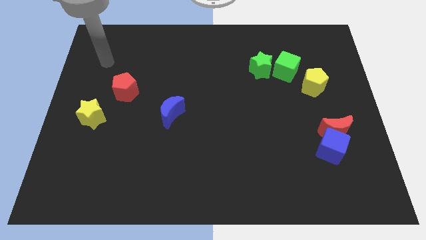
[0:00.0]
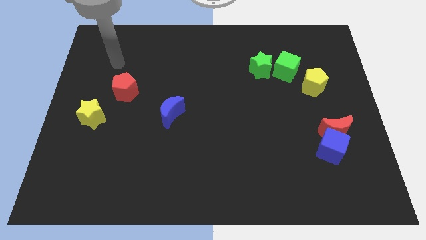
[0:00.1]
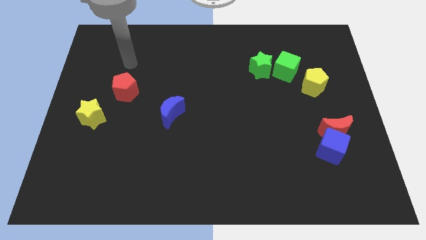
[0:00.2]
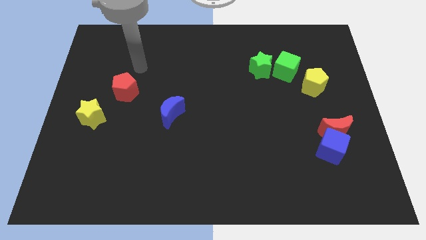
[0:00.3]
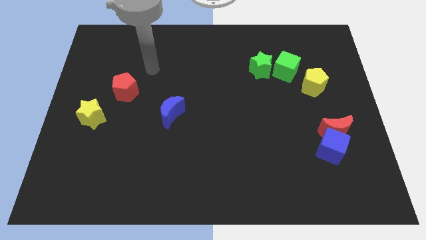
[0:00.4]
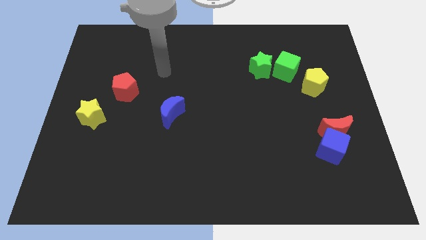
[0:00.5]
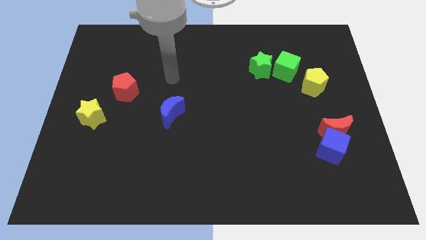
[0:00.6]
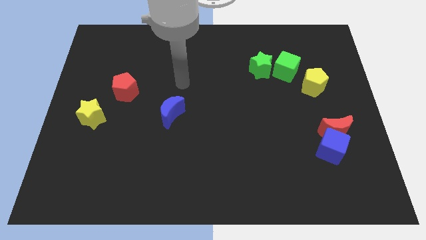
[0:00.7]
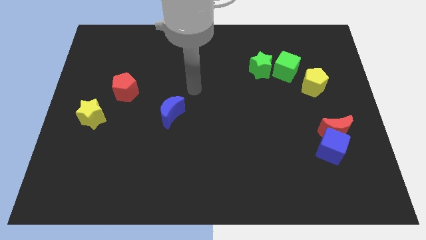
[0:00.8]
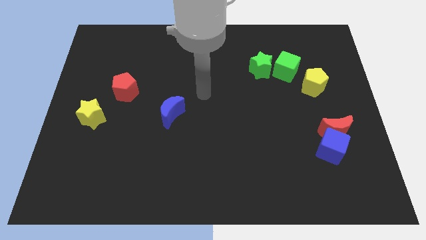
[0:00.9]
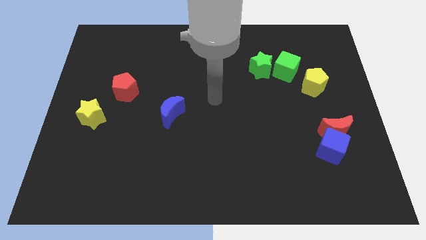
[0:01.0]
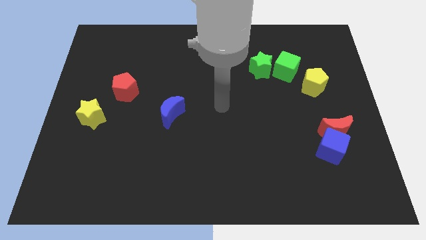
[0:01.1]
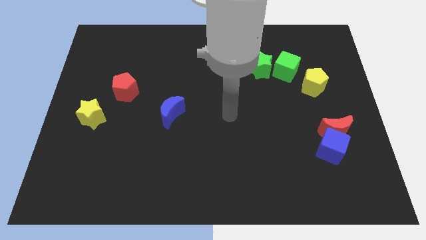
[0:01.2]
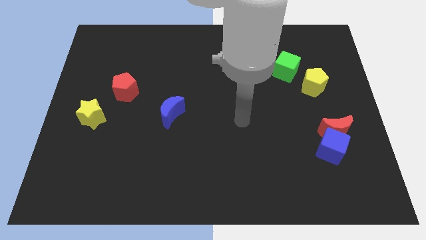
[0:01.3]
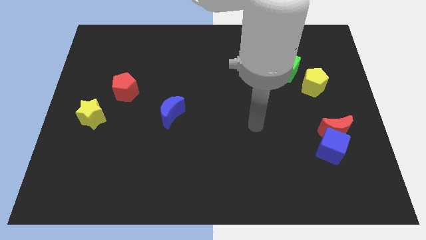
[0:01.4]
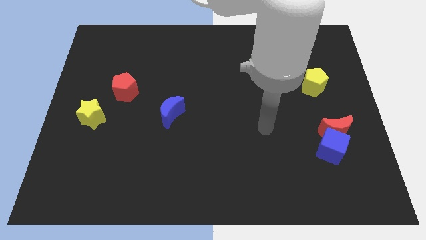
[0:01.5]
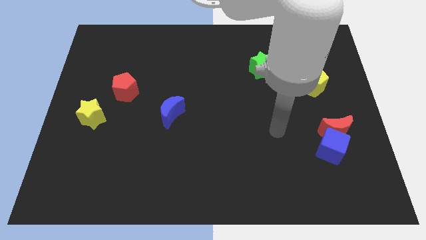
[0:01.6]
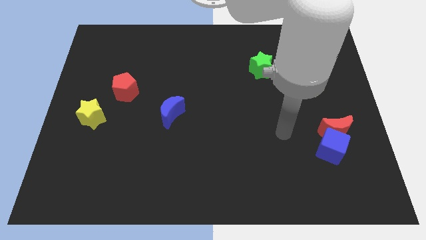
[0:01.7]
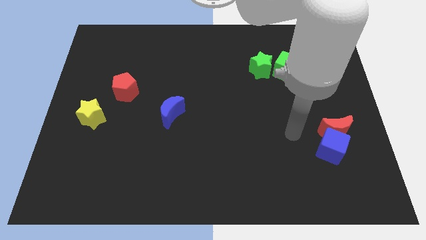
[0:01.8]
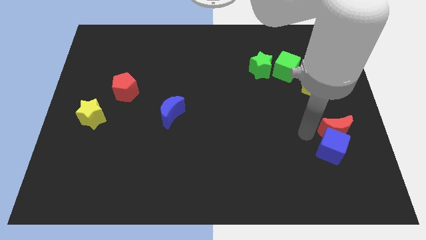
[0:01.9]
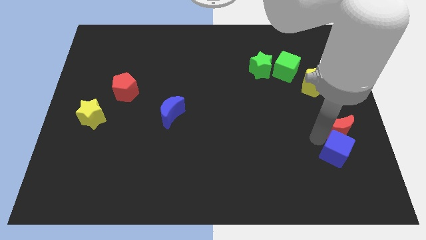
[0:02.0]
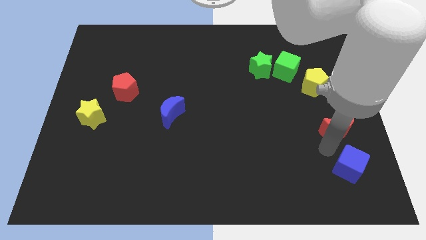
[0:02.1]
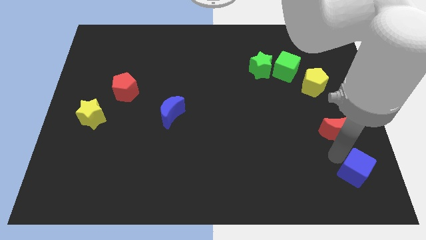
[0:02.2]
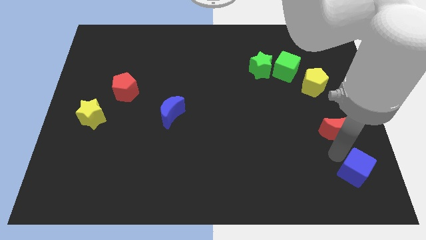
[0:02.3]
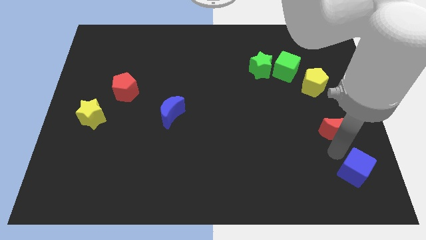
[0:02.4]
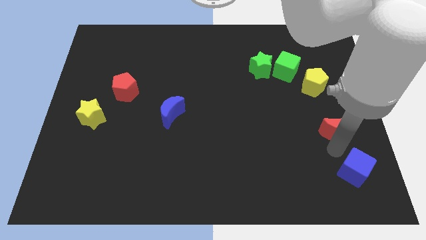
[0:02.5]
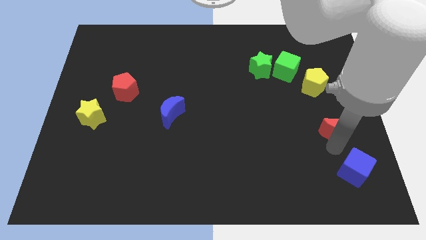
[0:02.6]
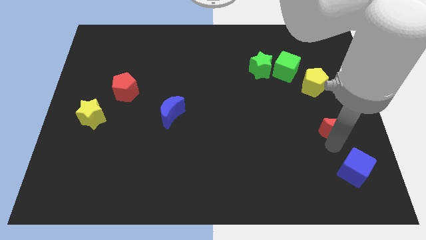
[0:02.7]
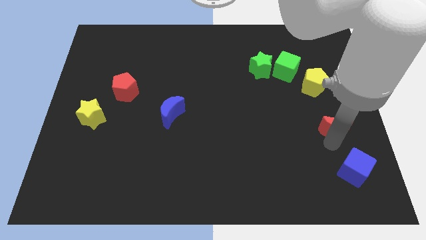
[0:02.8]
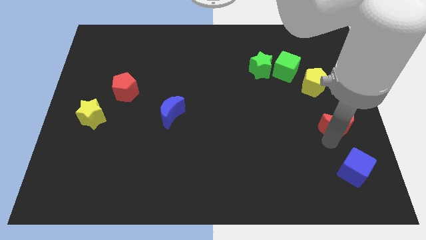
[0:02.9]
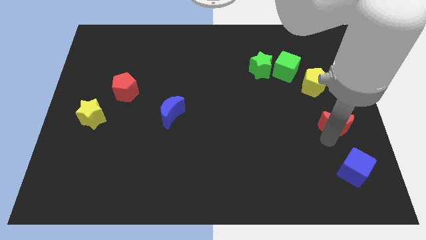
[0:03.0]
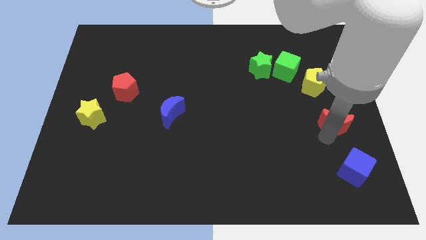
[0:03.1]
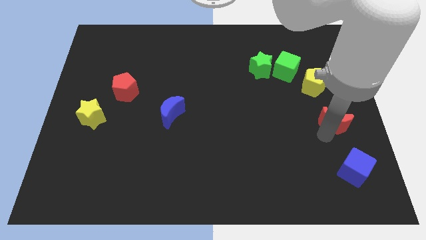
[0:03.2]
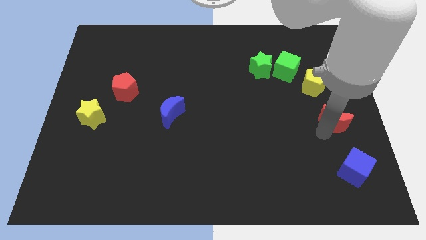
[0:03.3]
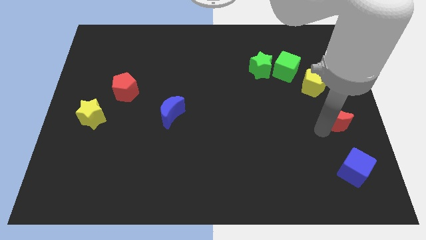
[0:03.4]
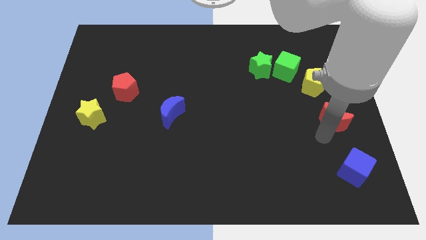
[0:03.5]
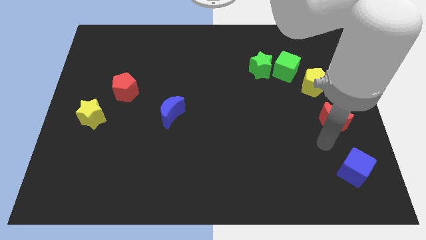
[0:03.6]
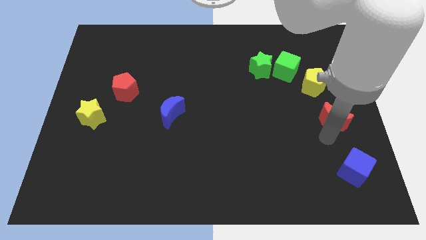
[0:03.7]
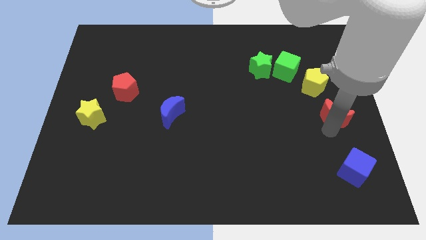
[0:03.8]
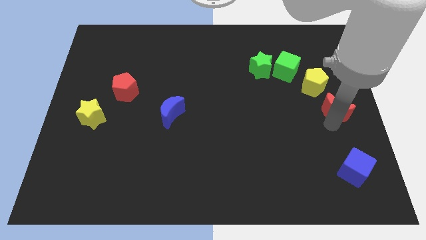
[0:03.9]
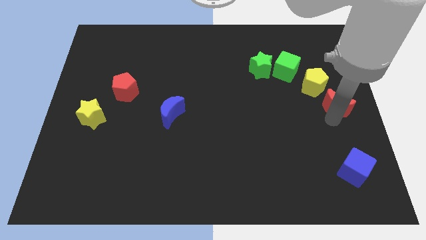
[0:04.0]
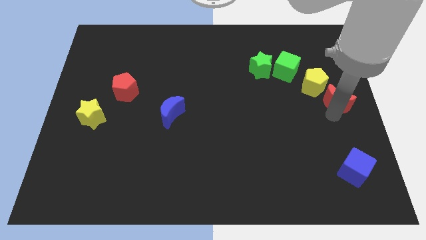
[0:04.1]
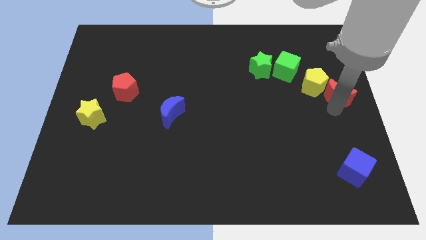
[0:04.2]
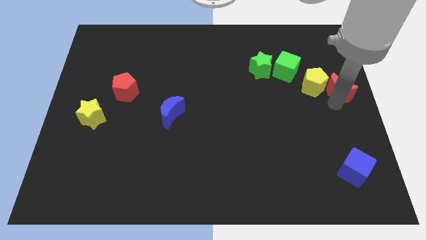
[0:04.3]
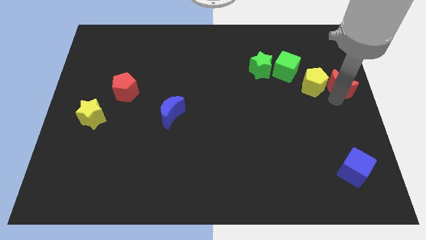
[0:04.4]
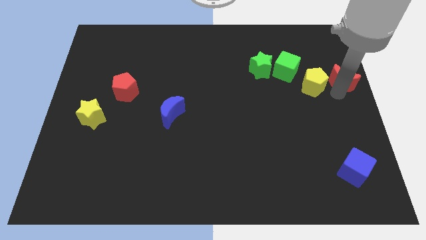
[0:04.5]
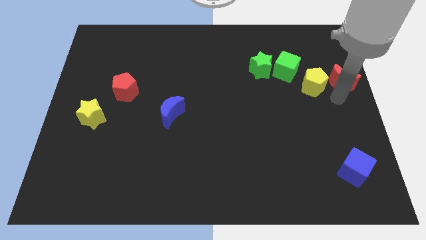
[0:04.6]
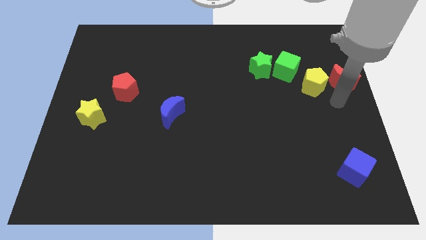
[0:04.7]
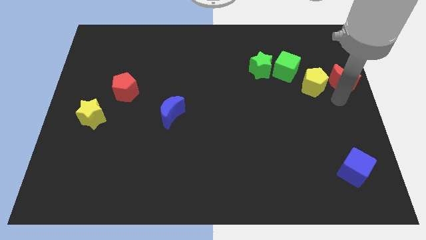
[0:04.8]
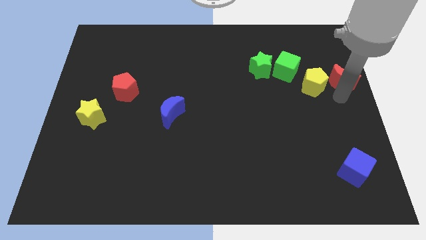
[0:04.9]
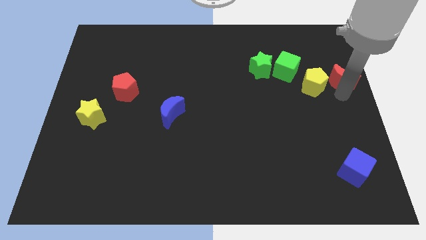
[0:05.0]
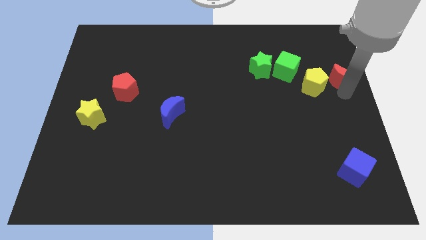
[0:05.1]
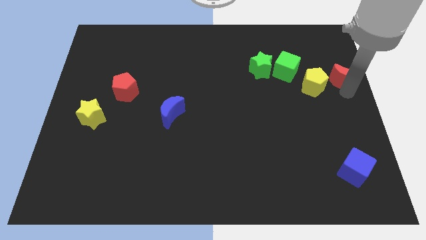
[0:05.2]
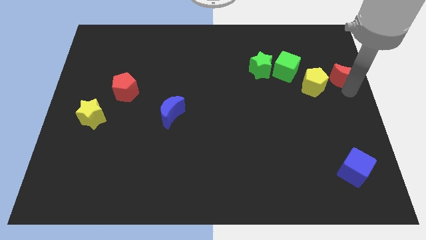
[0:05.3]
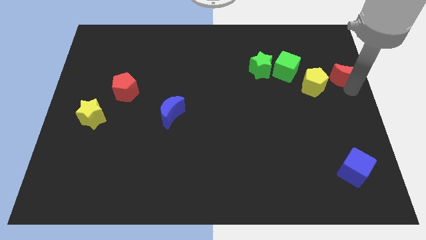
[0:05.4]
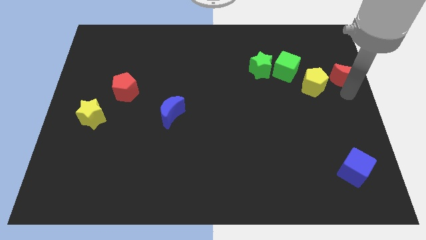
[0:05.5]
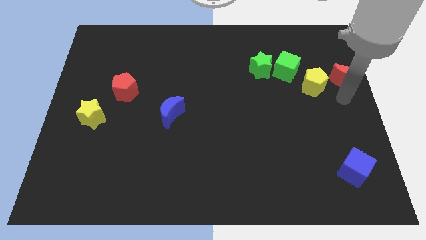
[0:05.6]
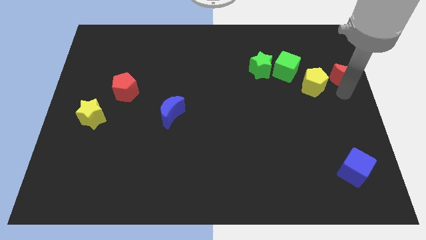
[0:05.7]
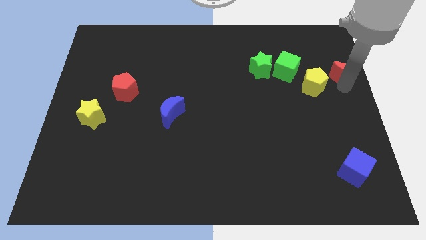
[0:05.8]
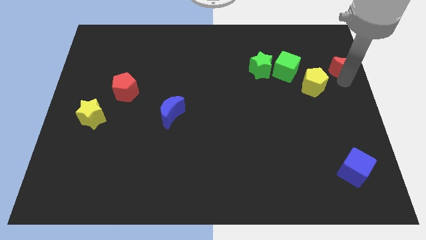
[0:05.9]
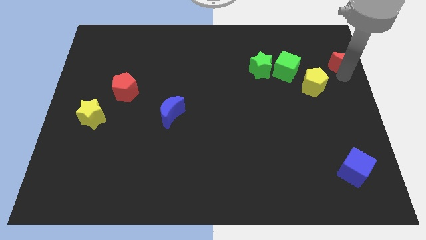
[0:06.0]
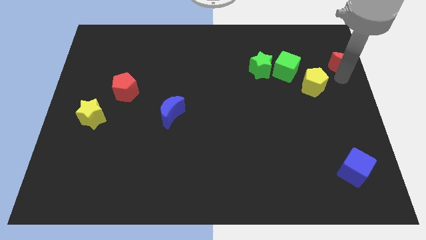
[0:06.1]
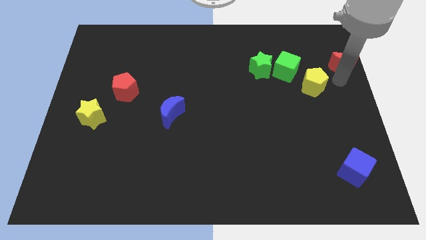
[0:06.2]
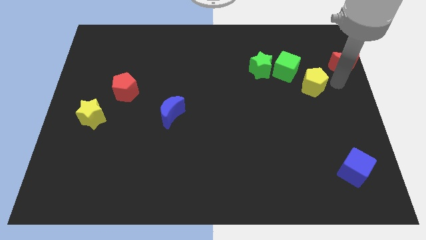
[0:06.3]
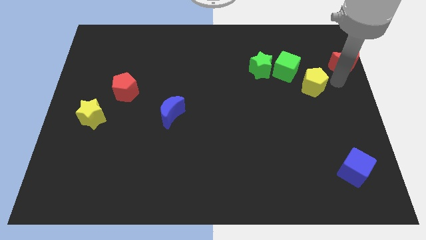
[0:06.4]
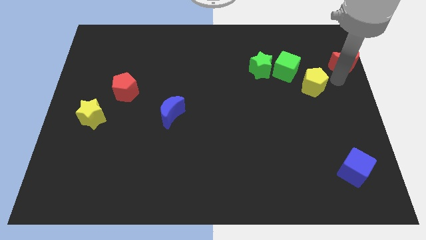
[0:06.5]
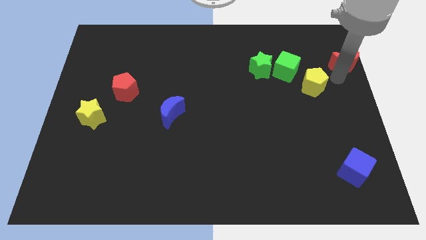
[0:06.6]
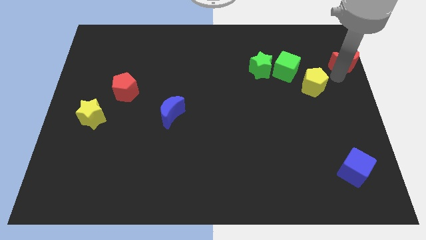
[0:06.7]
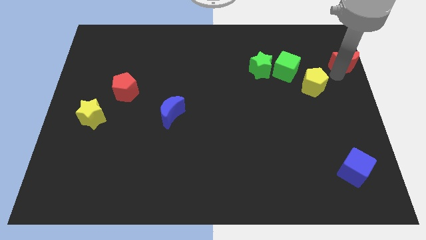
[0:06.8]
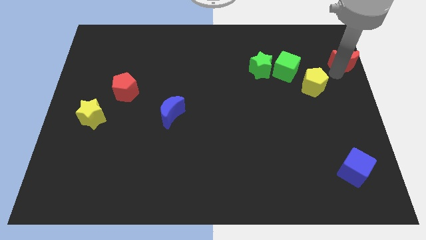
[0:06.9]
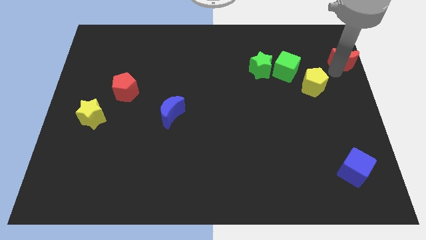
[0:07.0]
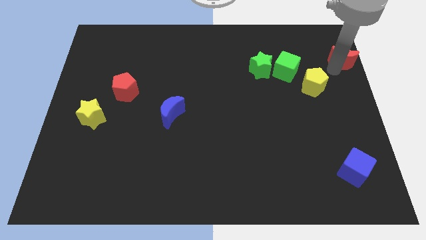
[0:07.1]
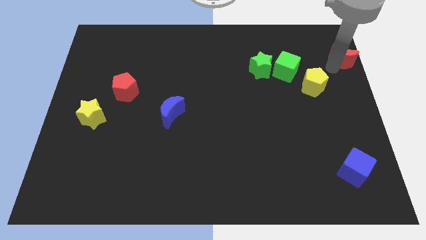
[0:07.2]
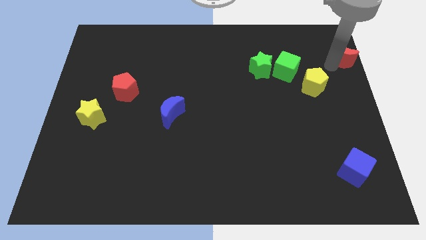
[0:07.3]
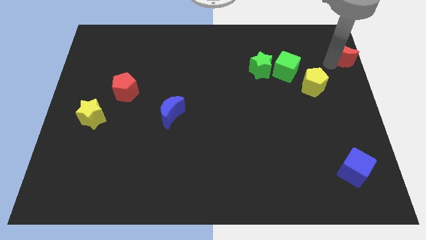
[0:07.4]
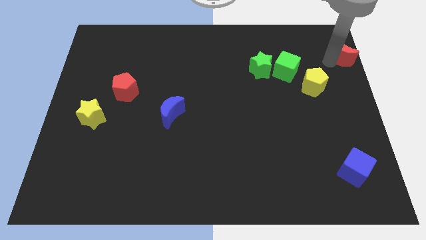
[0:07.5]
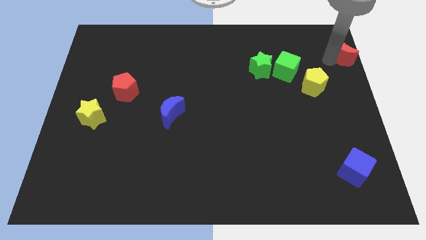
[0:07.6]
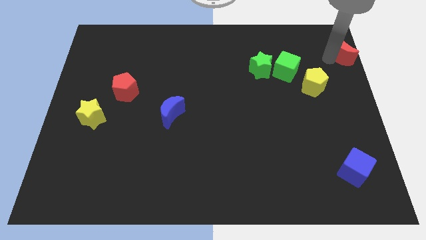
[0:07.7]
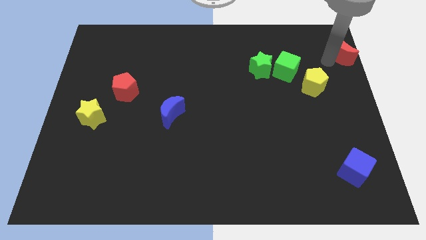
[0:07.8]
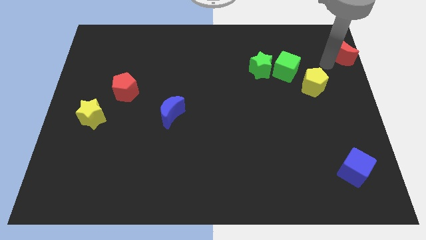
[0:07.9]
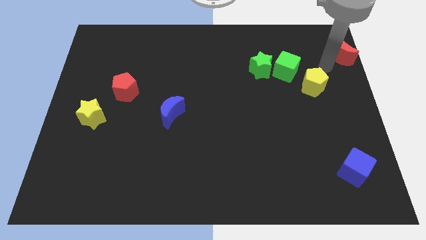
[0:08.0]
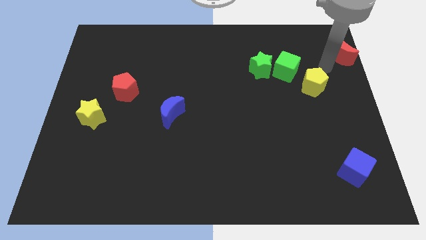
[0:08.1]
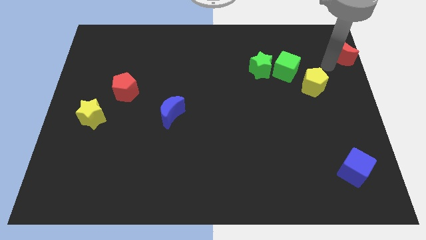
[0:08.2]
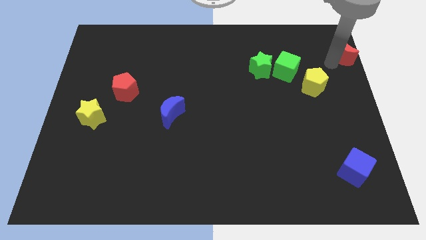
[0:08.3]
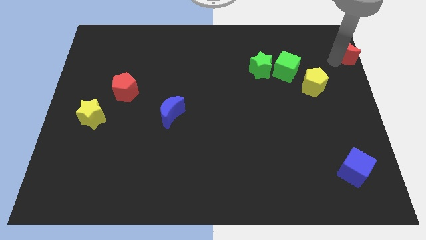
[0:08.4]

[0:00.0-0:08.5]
move the red moon to the upper right corner
